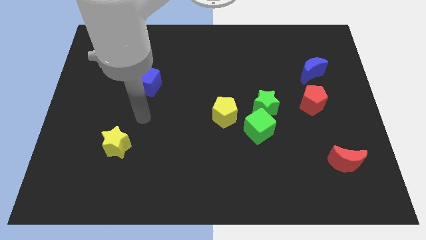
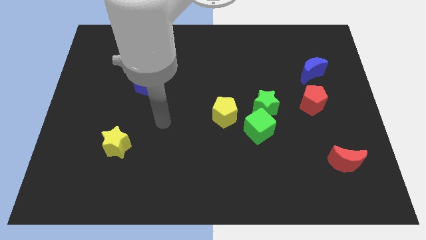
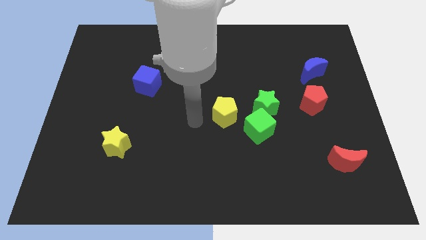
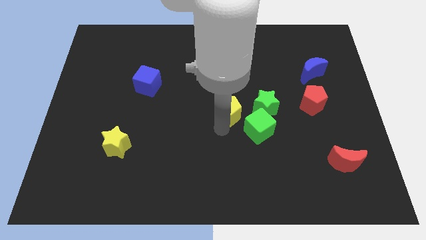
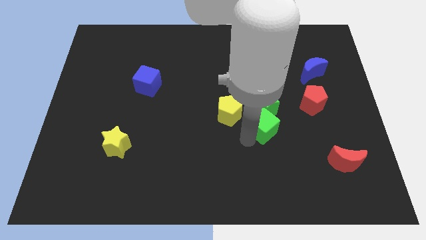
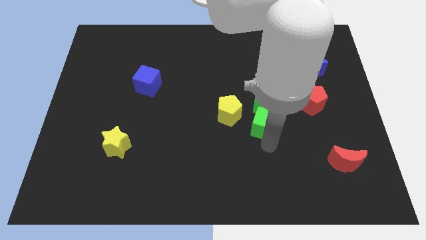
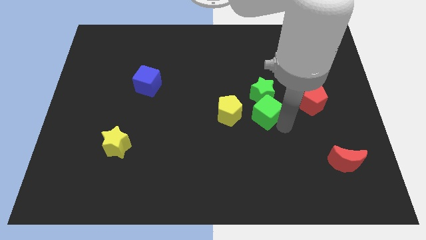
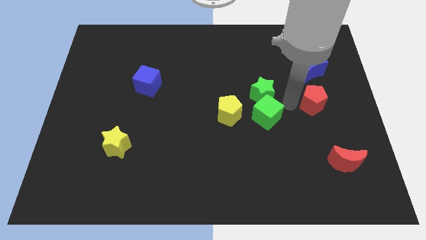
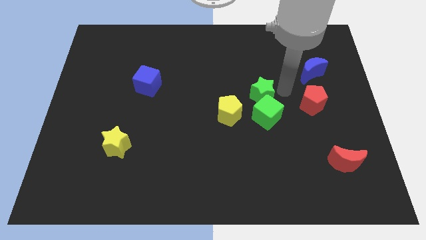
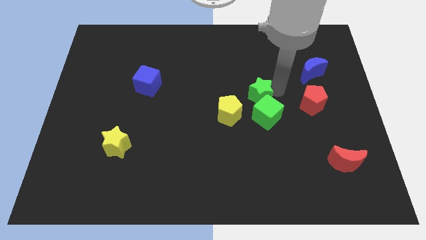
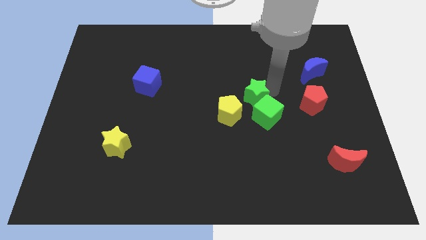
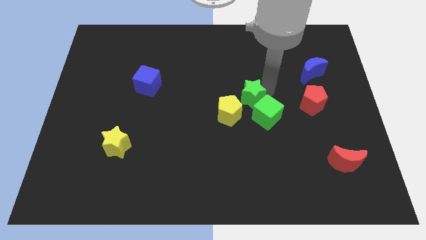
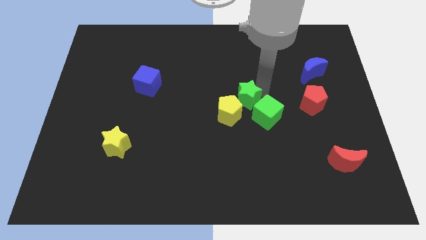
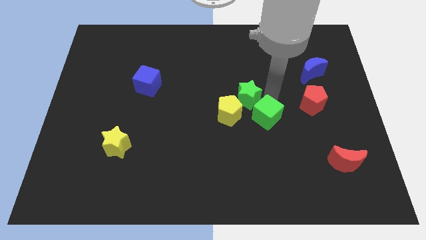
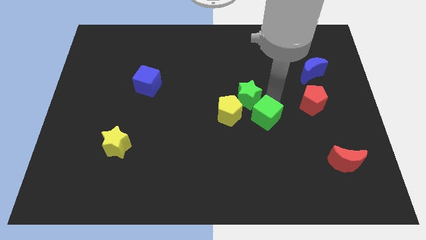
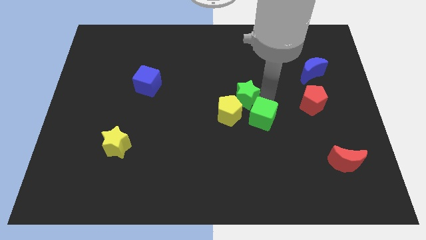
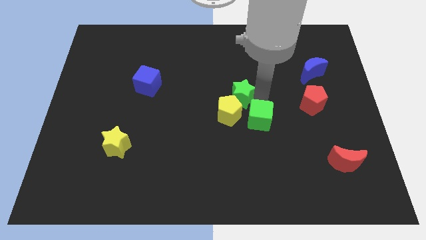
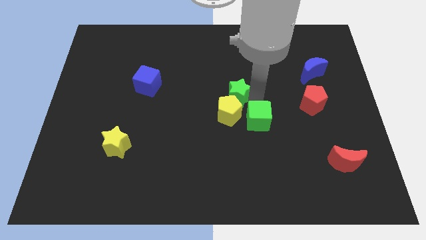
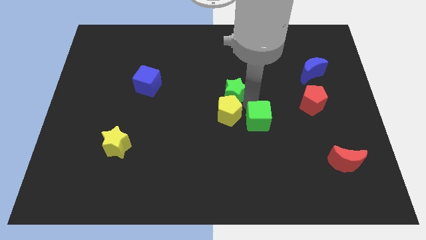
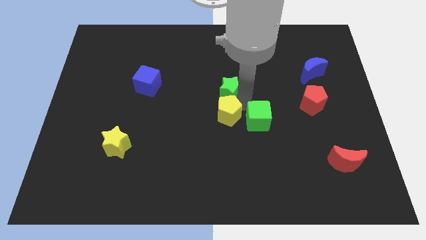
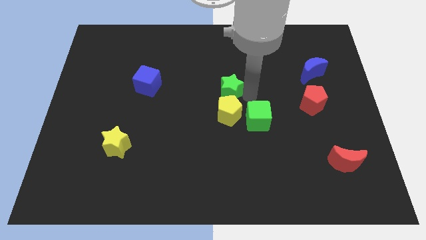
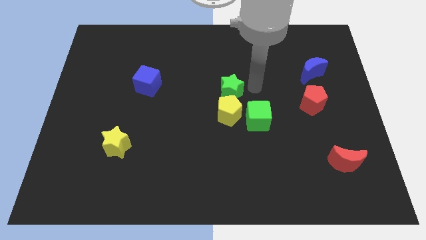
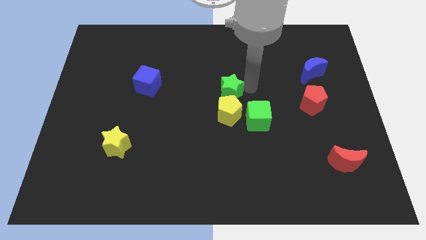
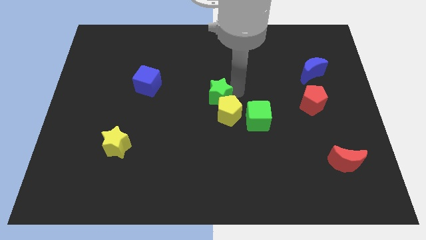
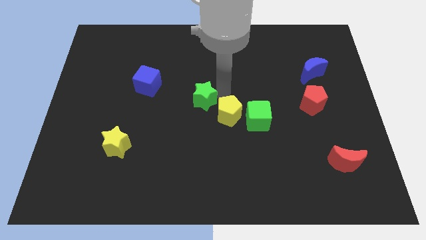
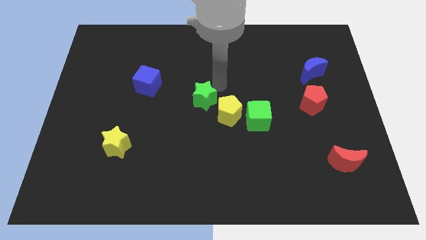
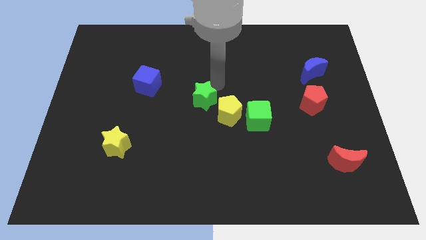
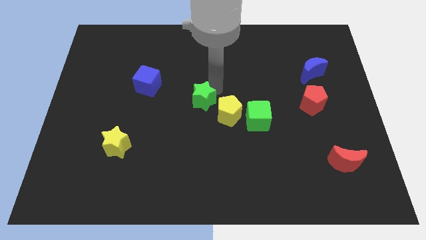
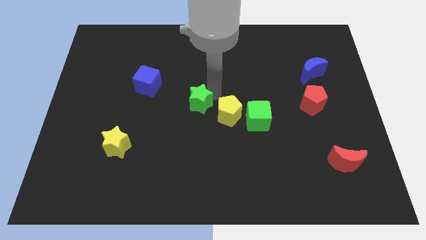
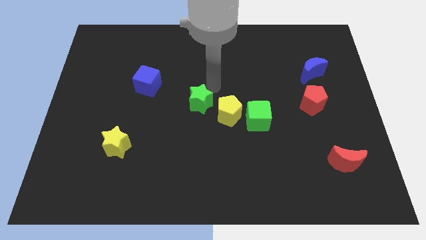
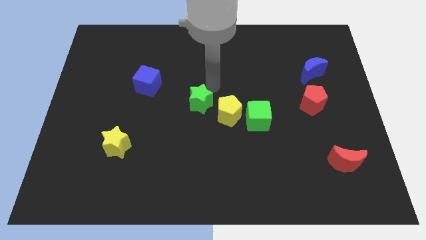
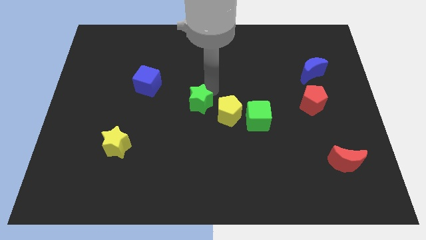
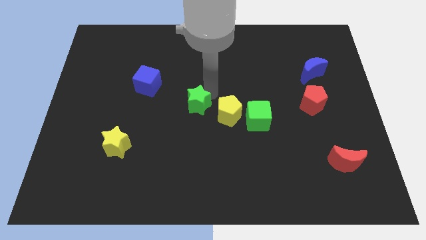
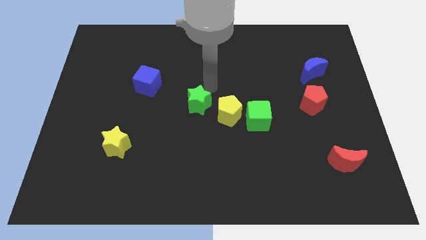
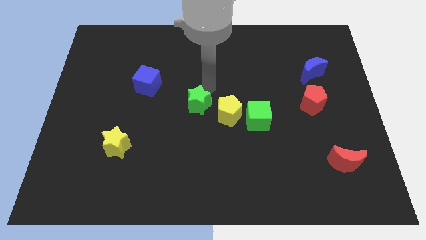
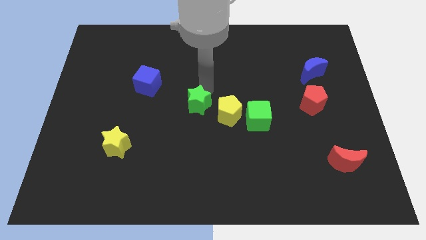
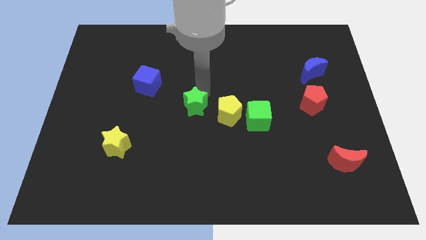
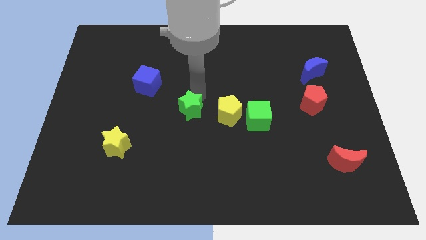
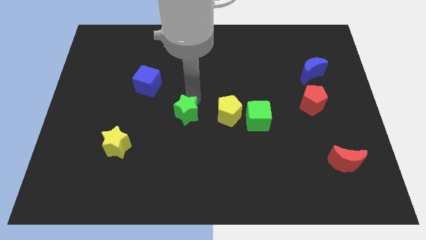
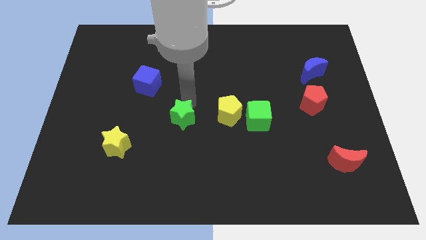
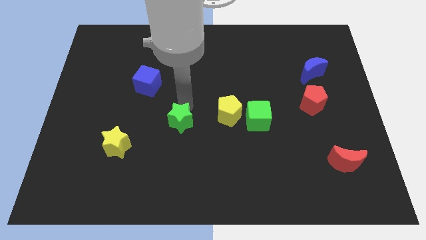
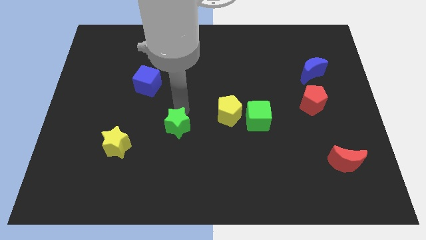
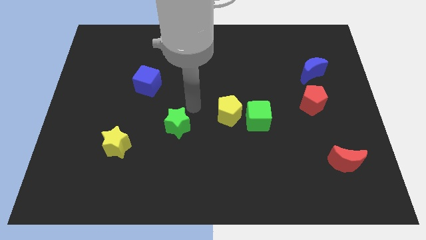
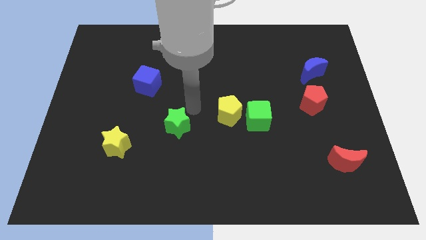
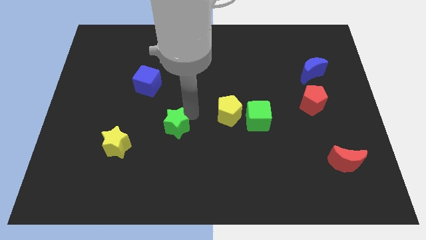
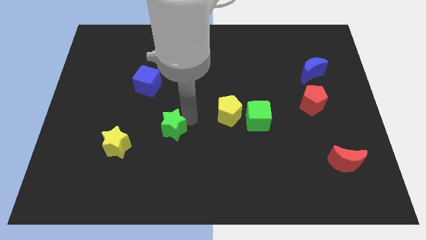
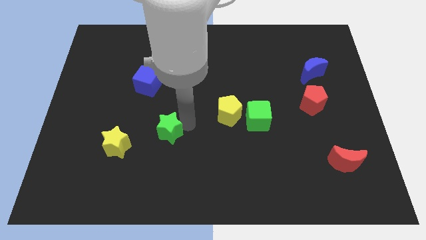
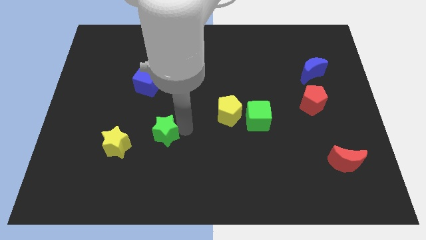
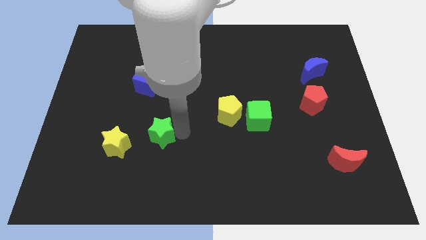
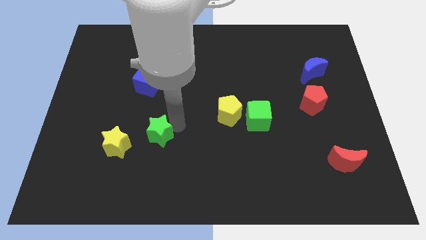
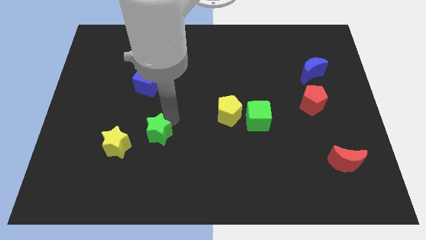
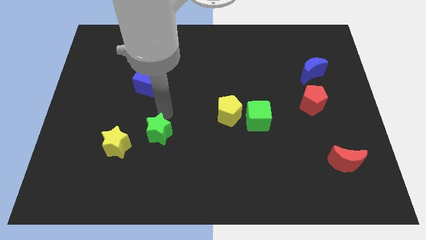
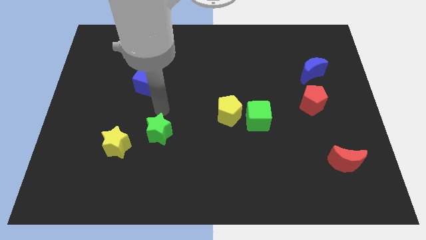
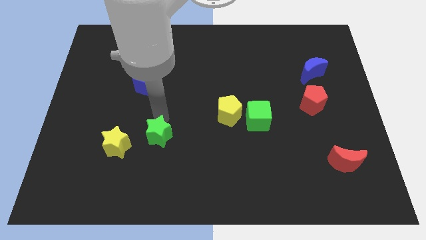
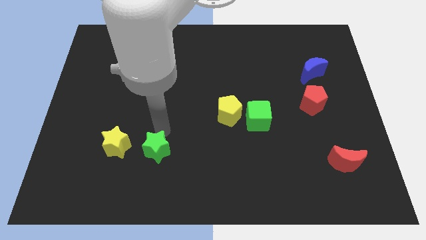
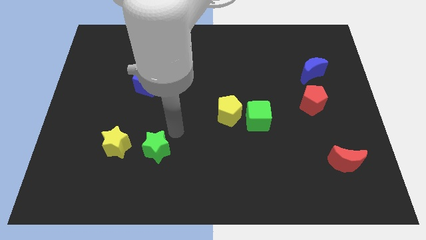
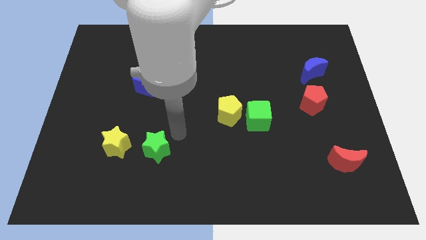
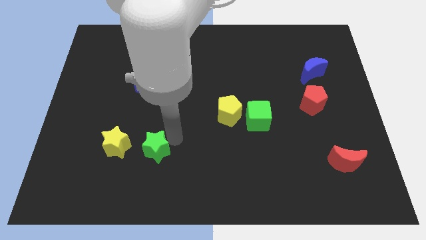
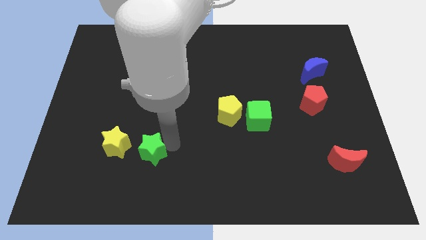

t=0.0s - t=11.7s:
put the green star to the bottom right of the yellow star

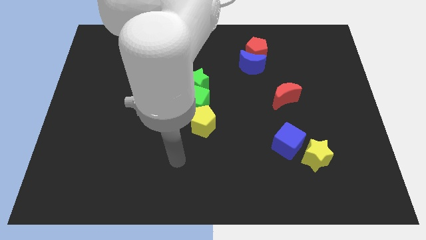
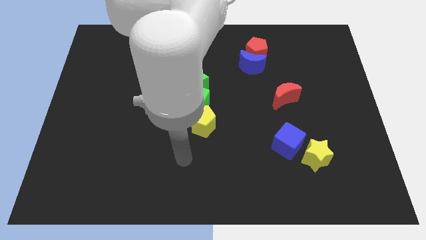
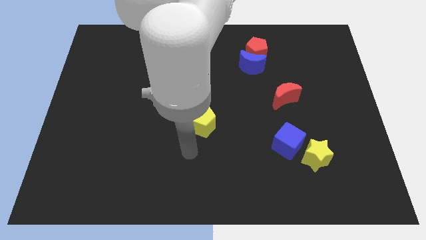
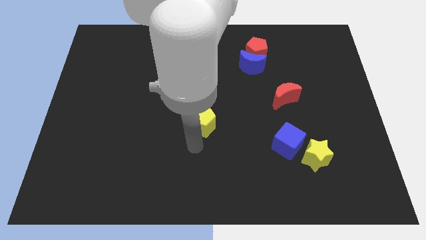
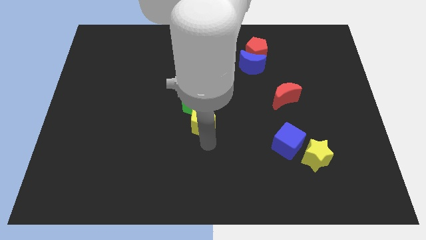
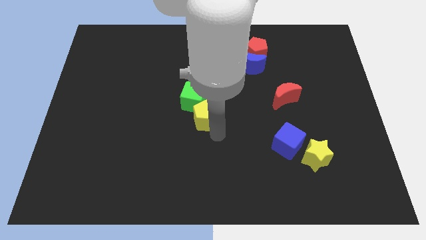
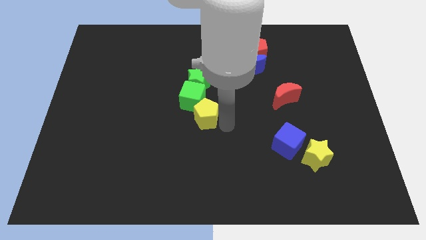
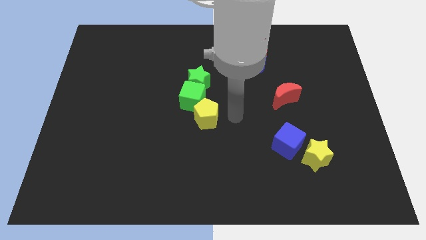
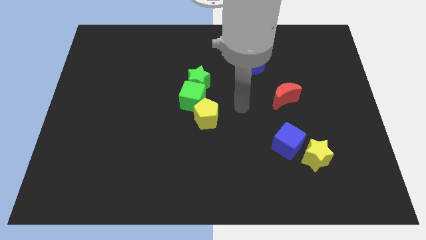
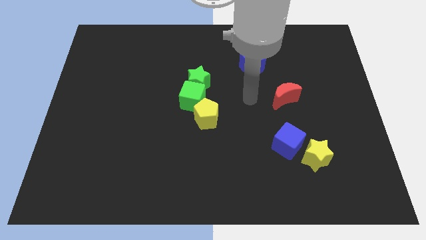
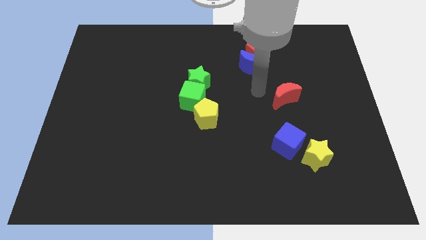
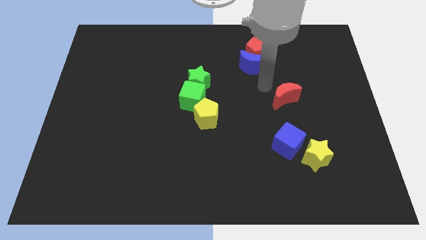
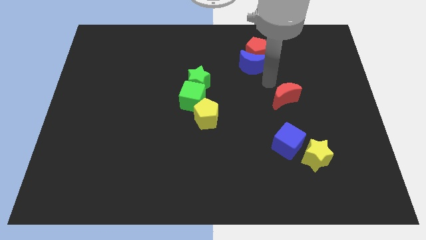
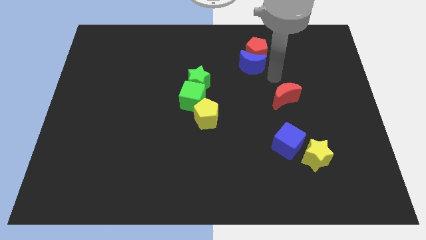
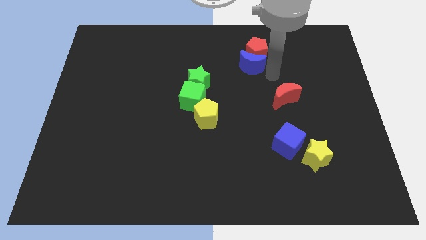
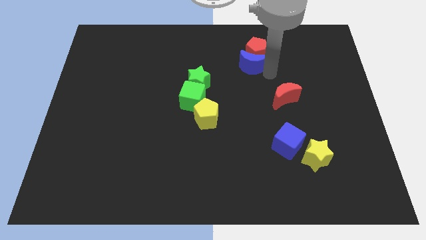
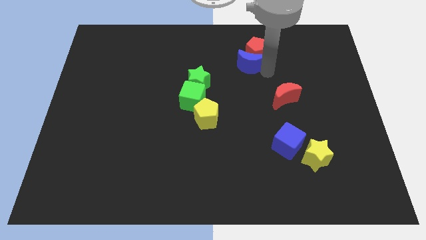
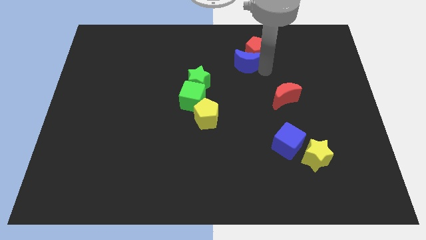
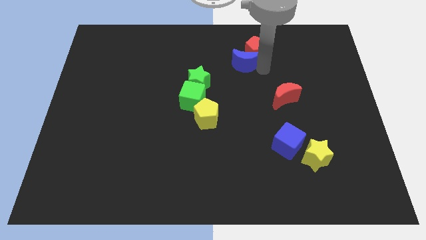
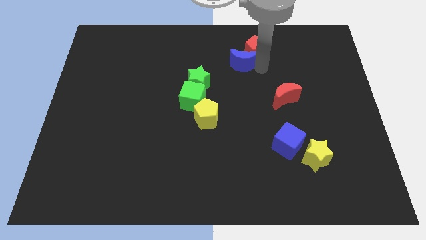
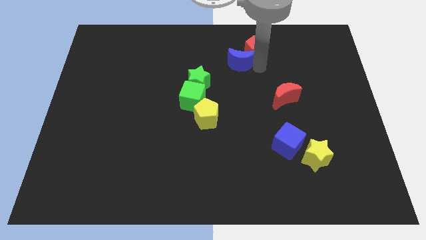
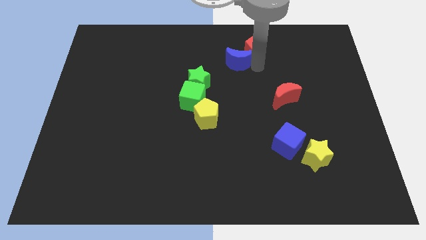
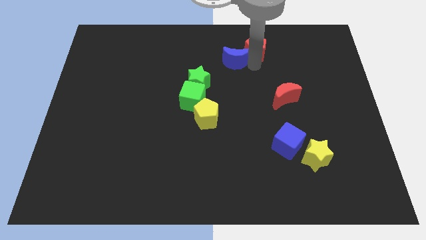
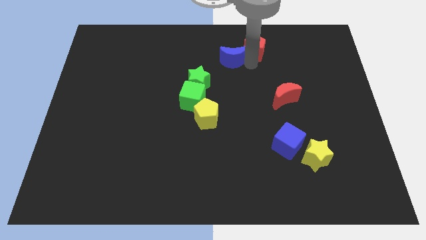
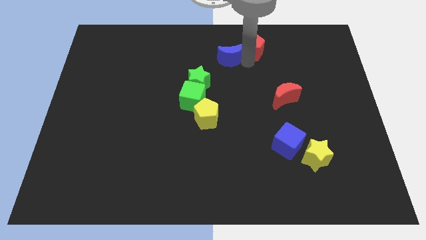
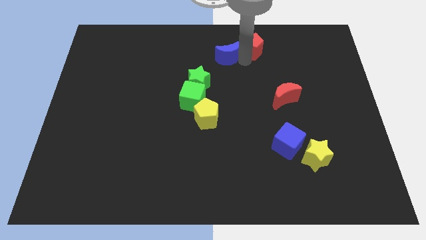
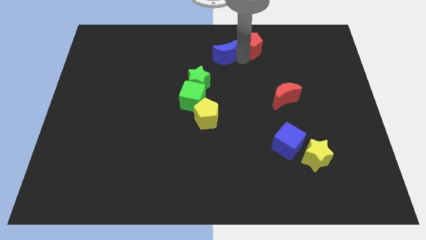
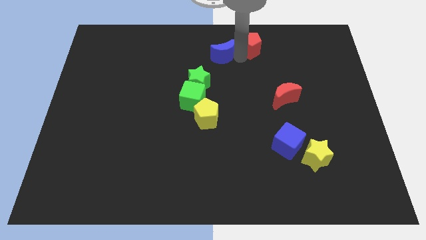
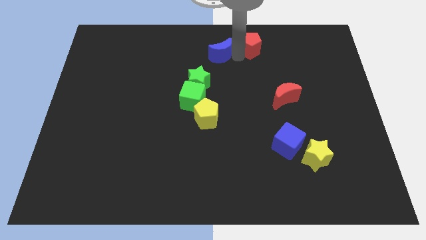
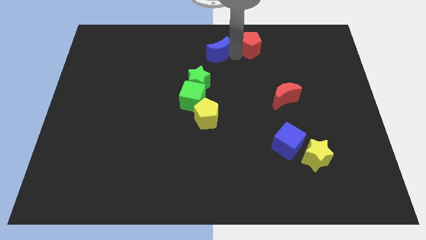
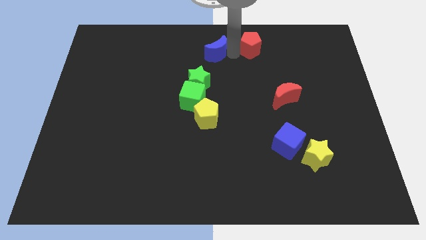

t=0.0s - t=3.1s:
push the blue moon to the top side of the green star
